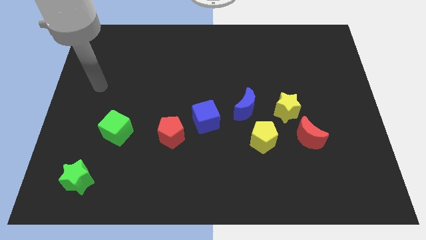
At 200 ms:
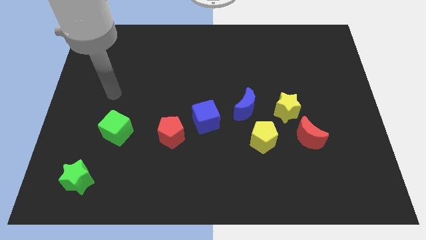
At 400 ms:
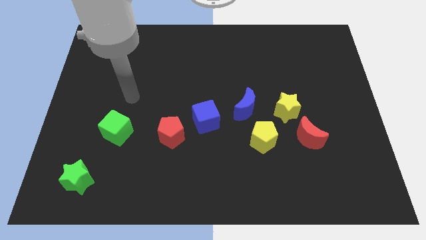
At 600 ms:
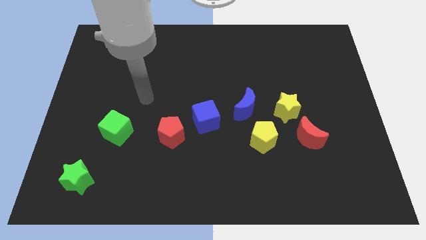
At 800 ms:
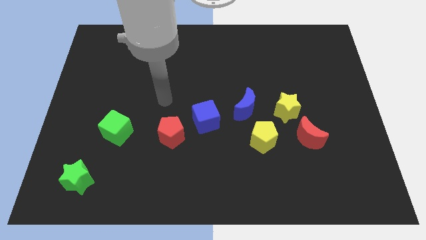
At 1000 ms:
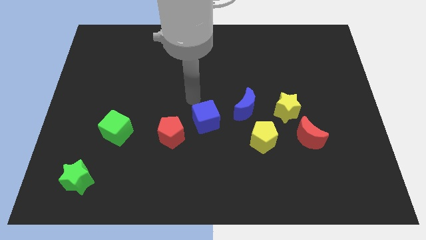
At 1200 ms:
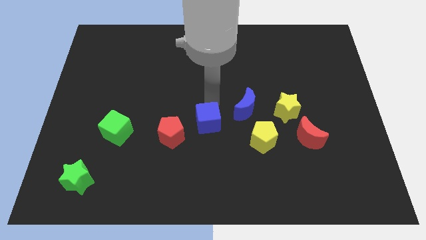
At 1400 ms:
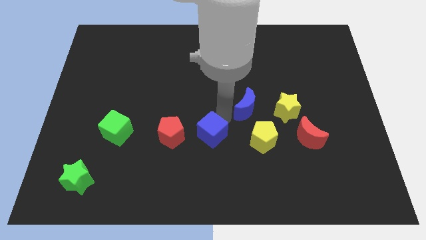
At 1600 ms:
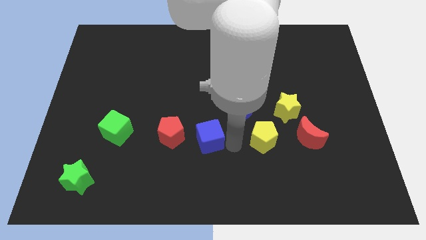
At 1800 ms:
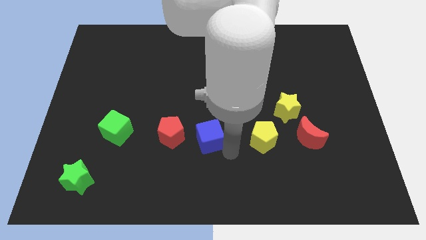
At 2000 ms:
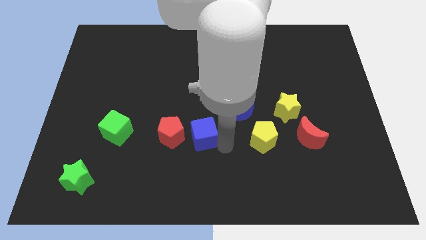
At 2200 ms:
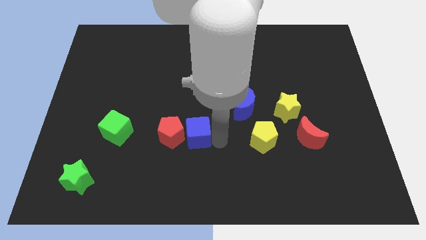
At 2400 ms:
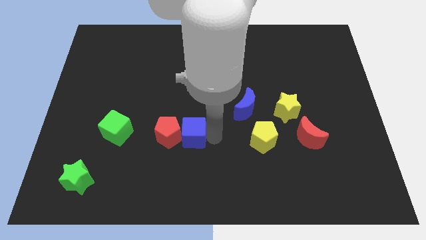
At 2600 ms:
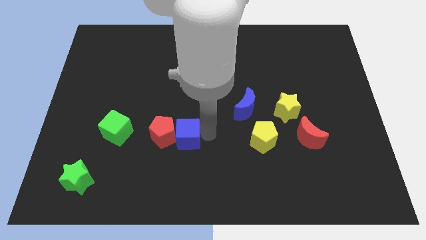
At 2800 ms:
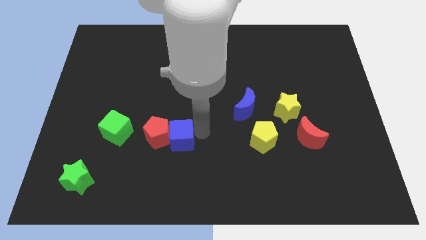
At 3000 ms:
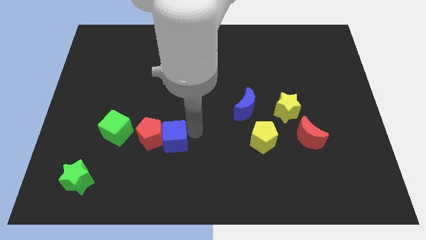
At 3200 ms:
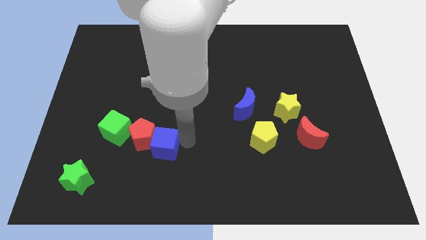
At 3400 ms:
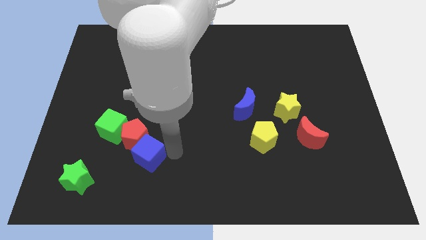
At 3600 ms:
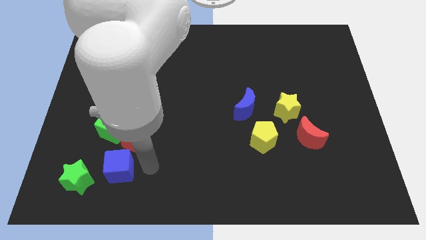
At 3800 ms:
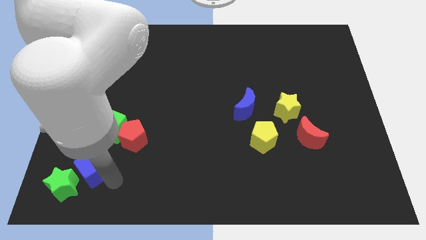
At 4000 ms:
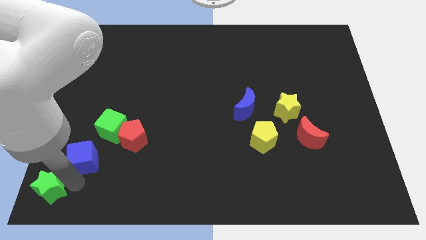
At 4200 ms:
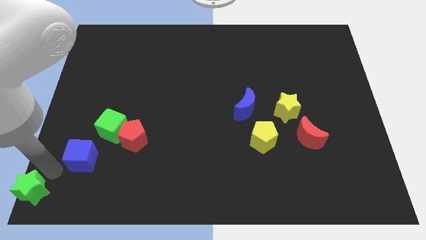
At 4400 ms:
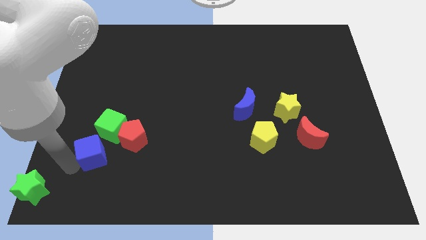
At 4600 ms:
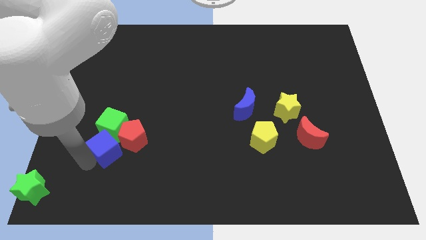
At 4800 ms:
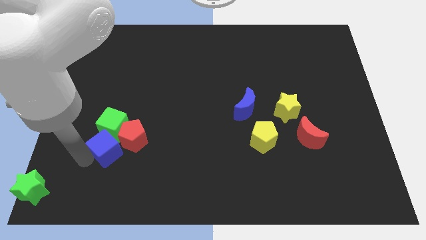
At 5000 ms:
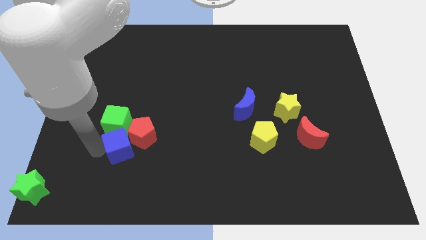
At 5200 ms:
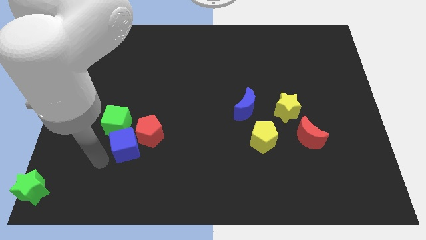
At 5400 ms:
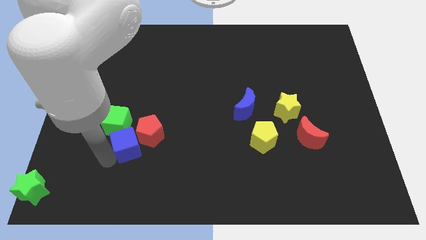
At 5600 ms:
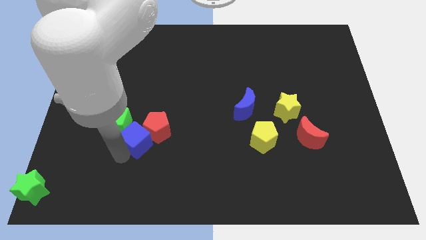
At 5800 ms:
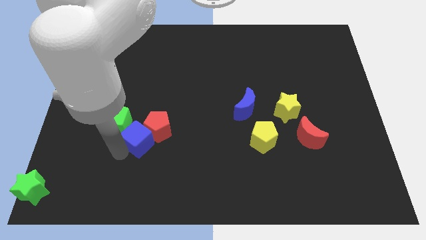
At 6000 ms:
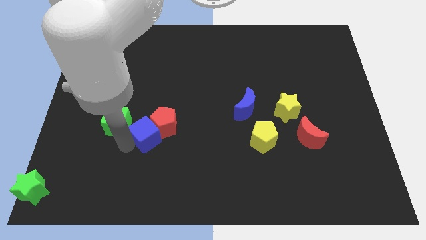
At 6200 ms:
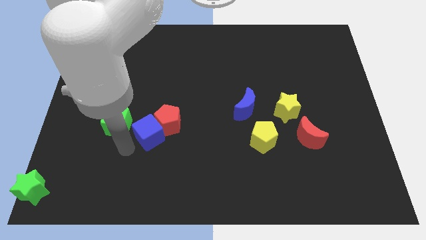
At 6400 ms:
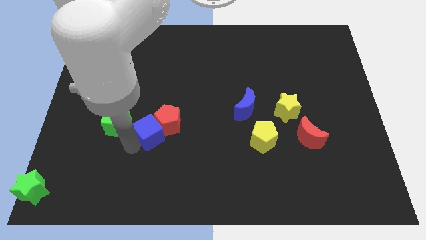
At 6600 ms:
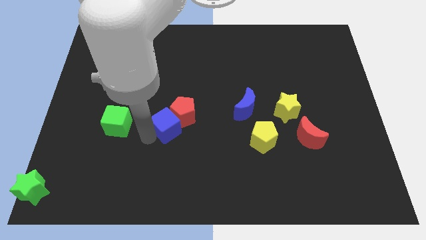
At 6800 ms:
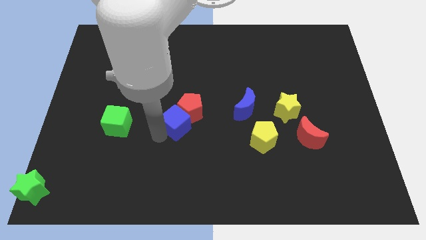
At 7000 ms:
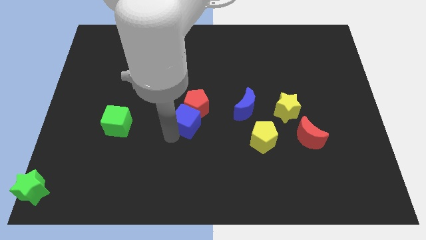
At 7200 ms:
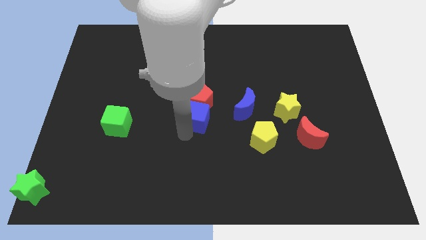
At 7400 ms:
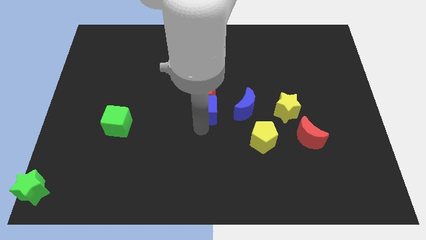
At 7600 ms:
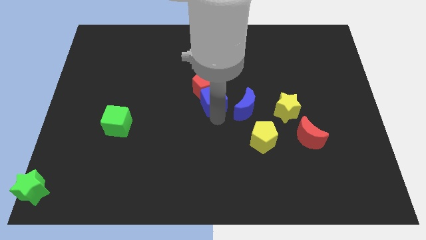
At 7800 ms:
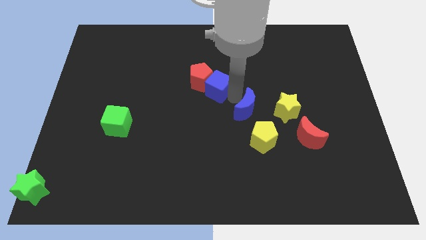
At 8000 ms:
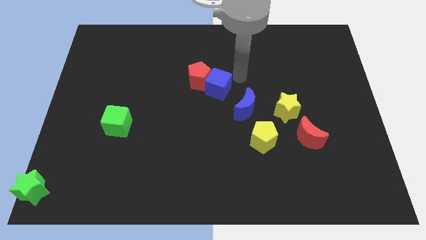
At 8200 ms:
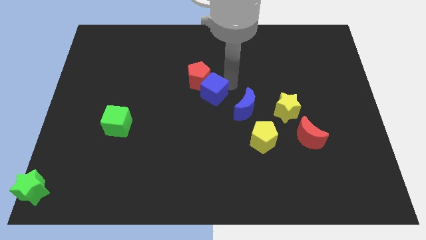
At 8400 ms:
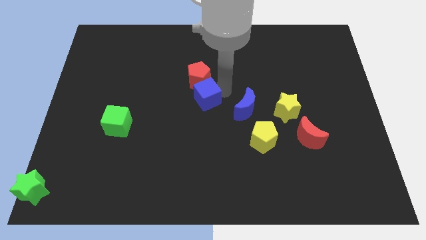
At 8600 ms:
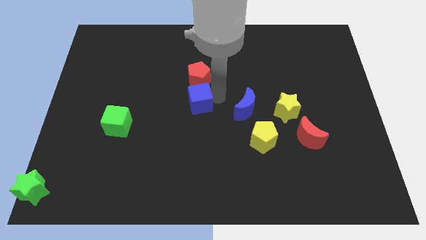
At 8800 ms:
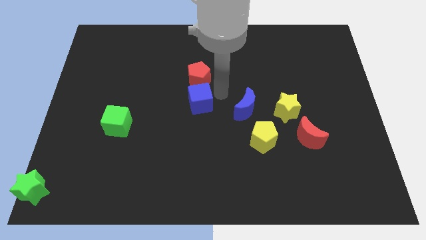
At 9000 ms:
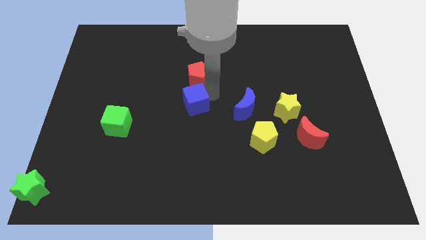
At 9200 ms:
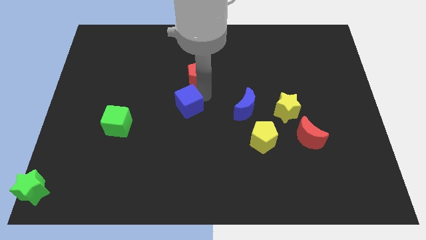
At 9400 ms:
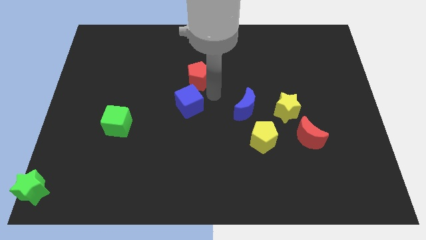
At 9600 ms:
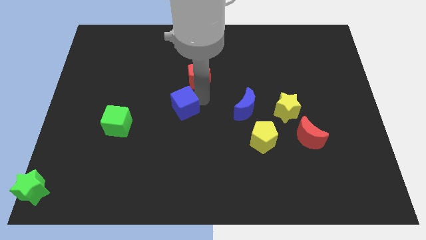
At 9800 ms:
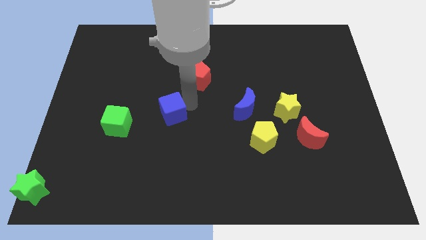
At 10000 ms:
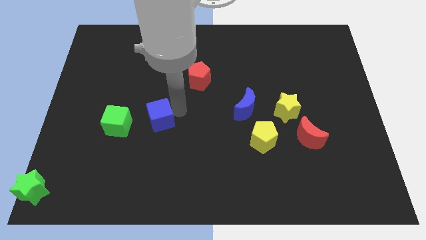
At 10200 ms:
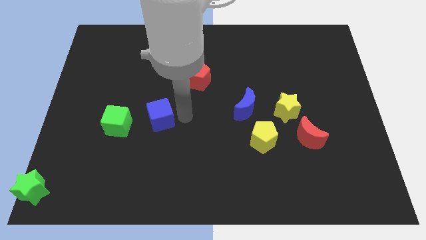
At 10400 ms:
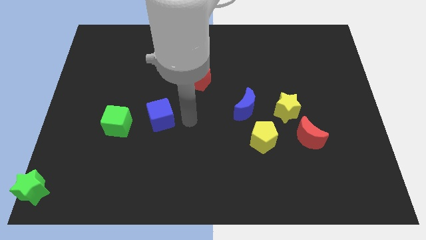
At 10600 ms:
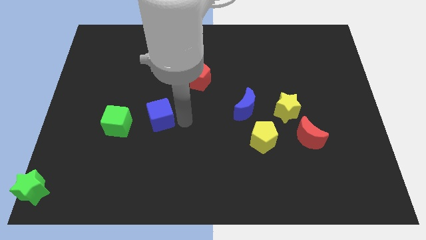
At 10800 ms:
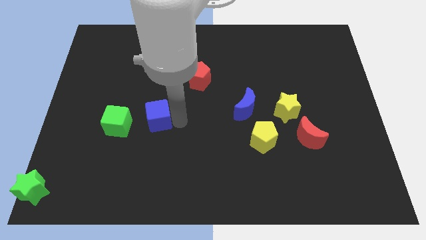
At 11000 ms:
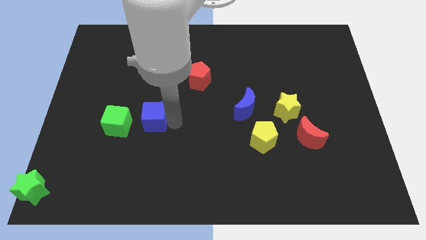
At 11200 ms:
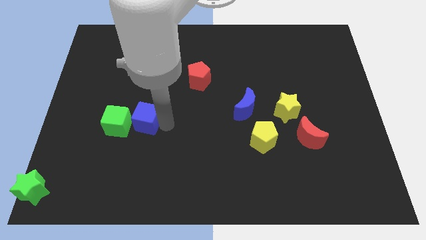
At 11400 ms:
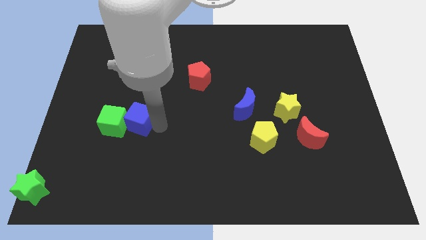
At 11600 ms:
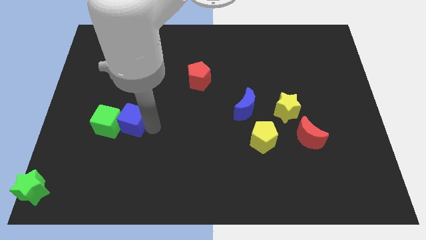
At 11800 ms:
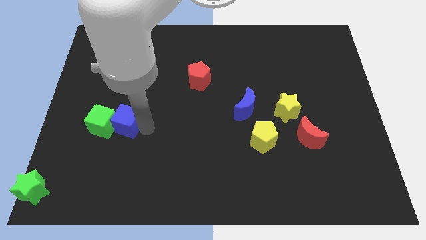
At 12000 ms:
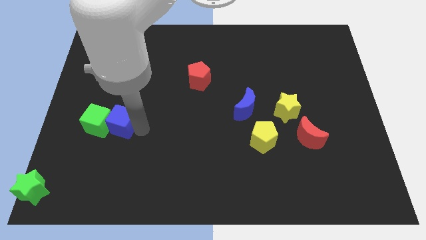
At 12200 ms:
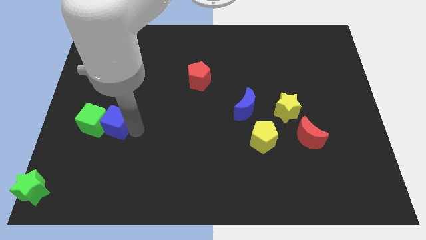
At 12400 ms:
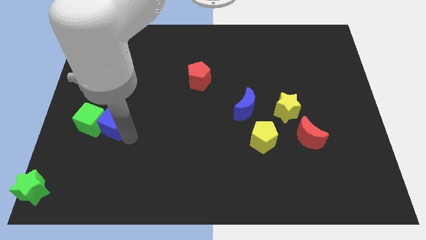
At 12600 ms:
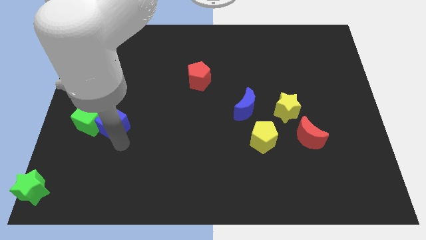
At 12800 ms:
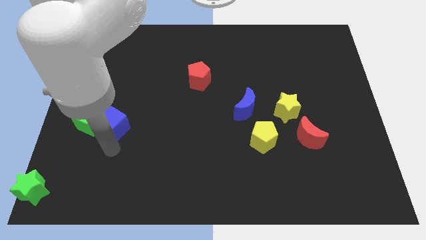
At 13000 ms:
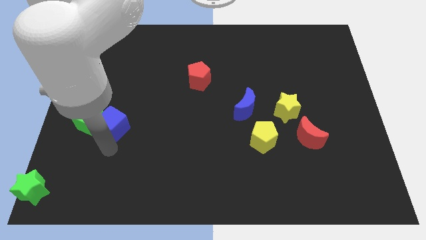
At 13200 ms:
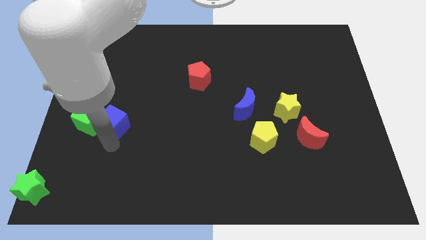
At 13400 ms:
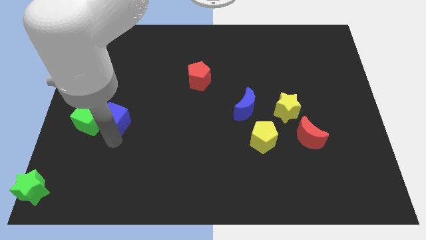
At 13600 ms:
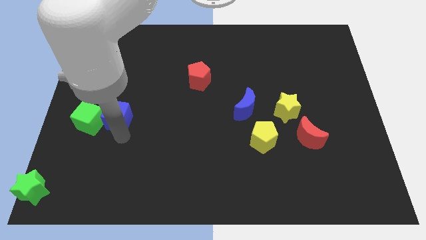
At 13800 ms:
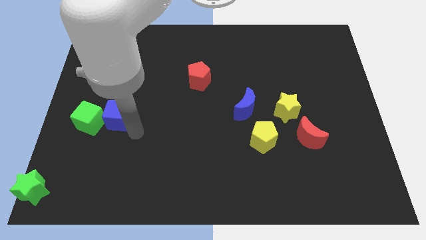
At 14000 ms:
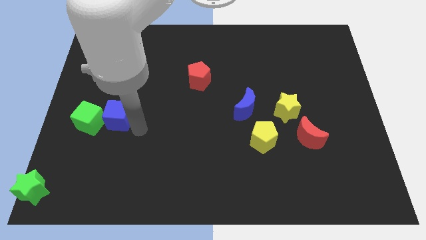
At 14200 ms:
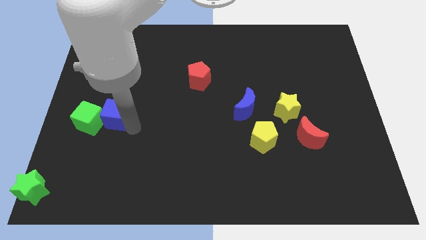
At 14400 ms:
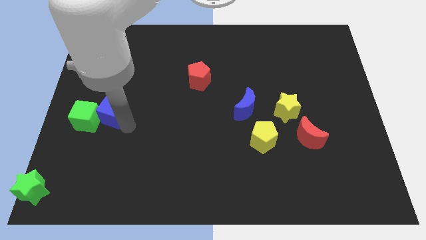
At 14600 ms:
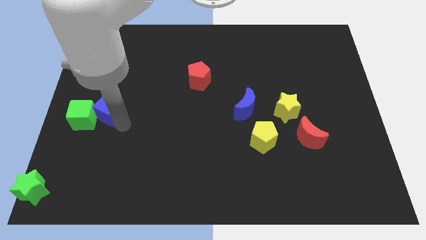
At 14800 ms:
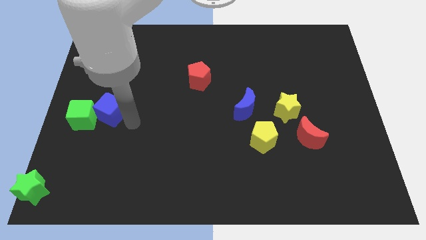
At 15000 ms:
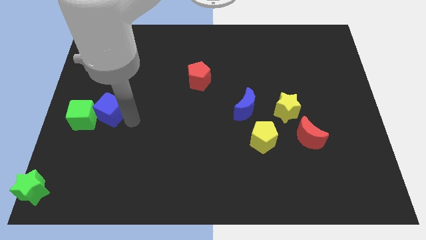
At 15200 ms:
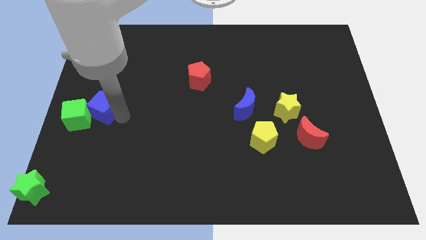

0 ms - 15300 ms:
put the blue cube to the left side
